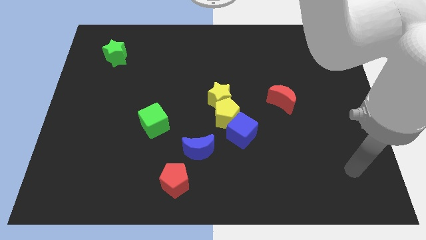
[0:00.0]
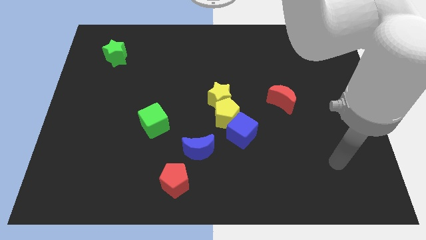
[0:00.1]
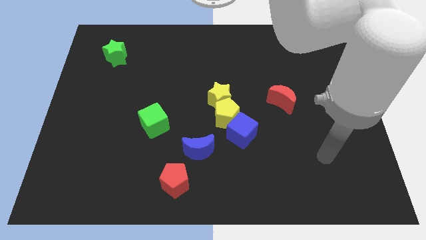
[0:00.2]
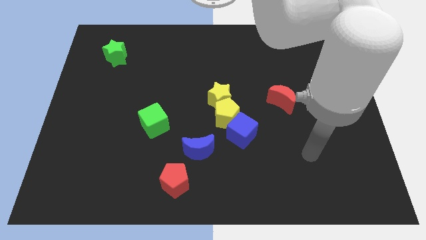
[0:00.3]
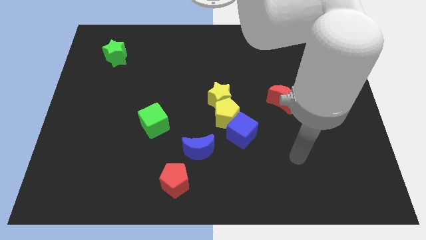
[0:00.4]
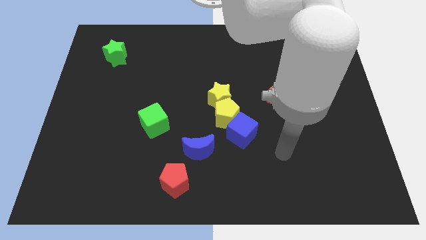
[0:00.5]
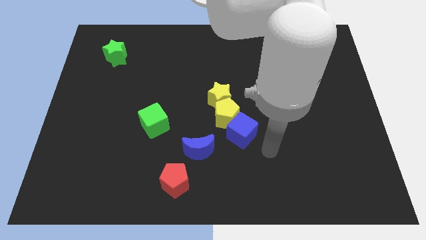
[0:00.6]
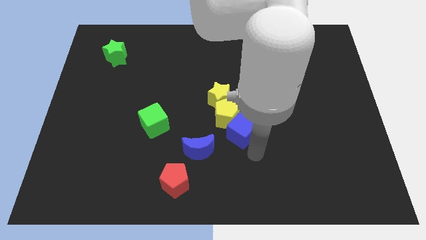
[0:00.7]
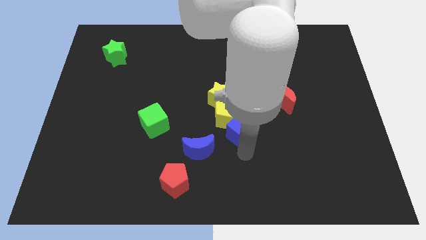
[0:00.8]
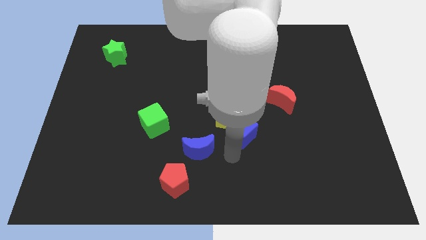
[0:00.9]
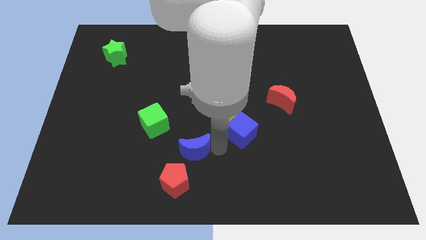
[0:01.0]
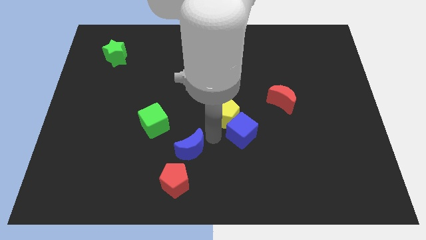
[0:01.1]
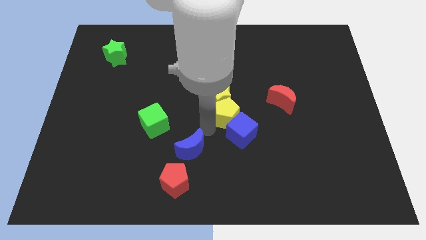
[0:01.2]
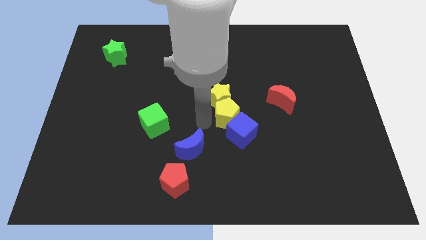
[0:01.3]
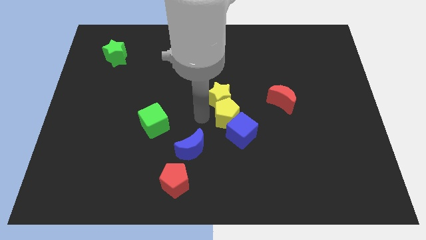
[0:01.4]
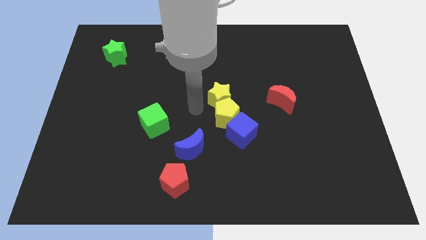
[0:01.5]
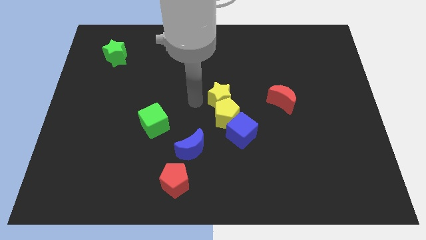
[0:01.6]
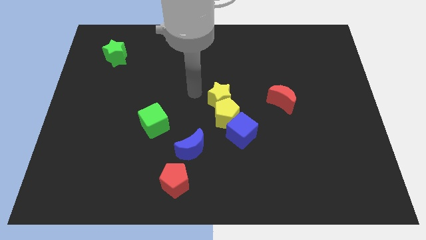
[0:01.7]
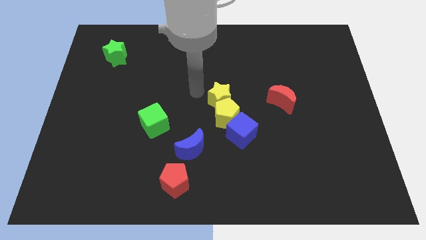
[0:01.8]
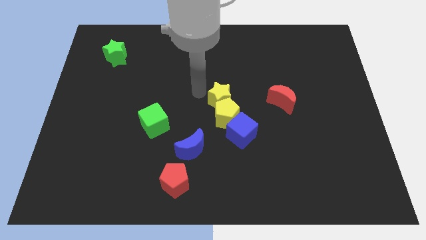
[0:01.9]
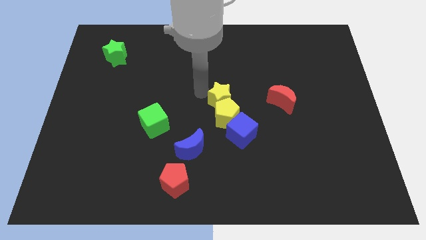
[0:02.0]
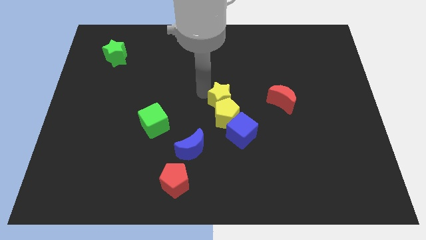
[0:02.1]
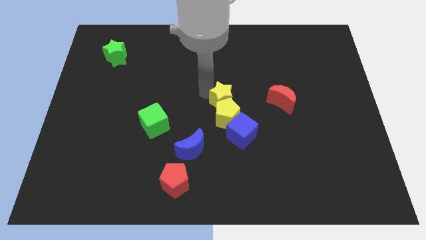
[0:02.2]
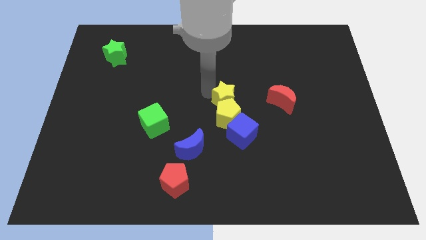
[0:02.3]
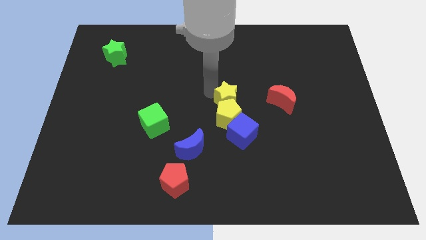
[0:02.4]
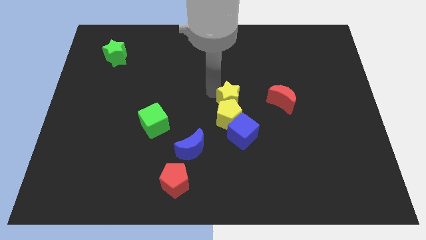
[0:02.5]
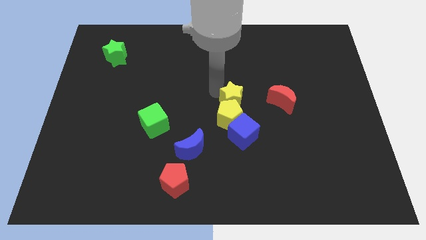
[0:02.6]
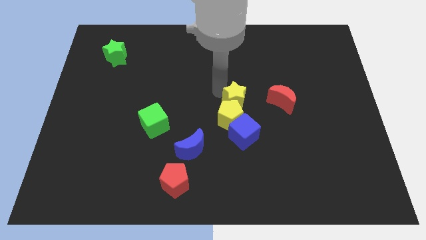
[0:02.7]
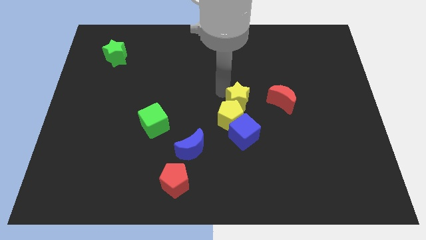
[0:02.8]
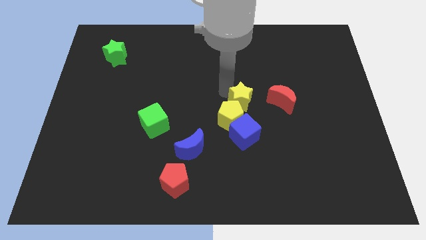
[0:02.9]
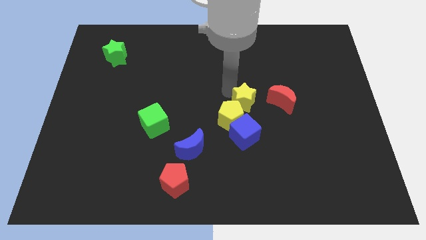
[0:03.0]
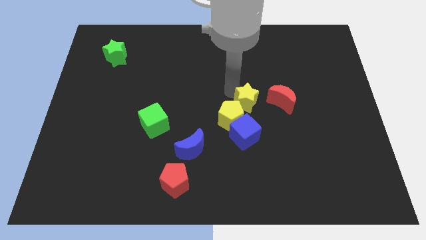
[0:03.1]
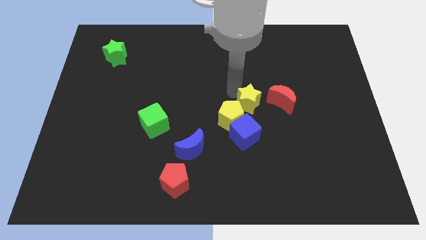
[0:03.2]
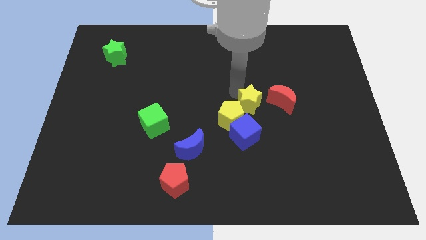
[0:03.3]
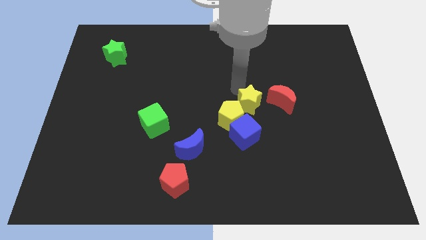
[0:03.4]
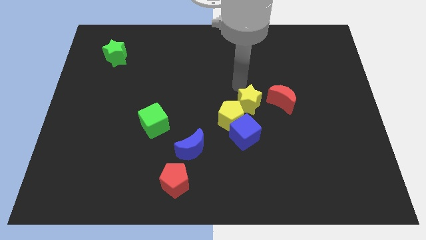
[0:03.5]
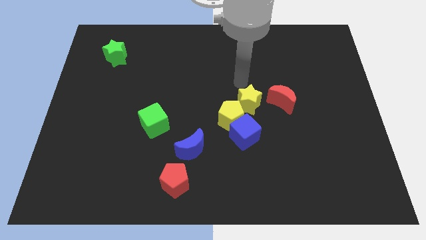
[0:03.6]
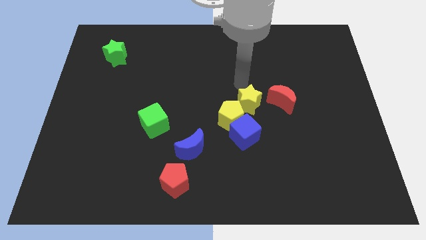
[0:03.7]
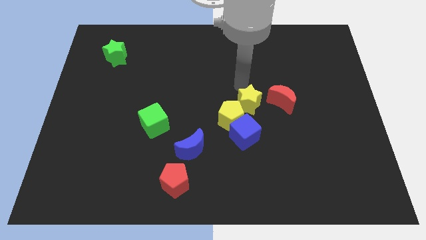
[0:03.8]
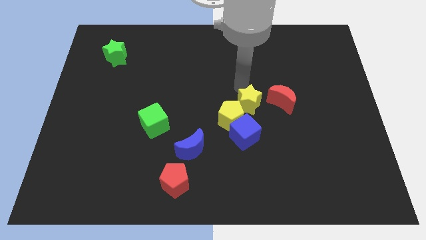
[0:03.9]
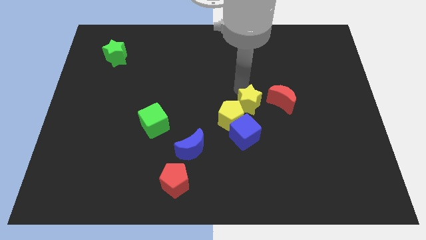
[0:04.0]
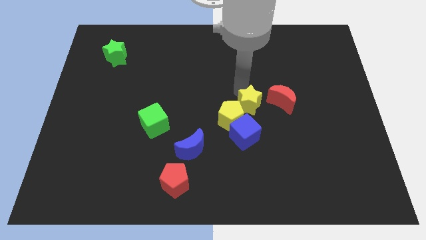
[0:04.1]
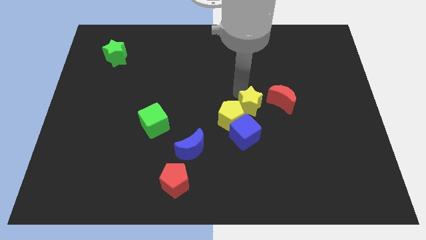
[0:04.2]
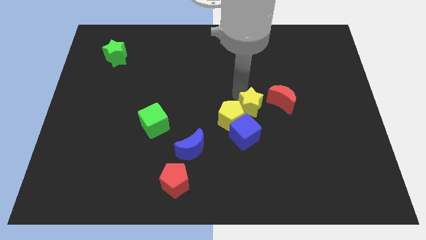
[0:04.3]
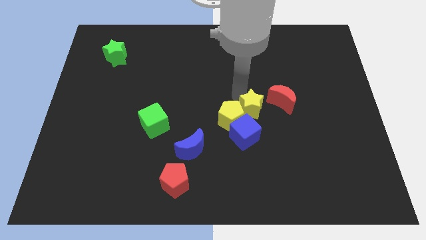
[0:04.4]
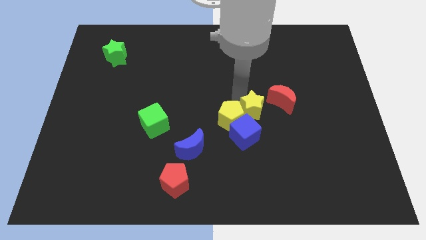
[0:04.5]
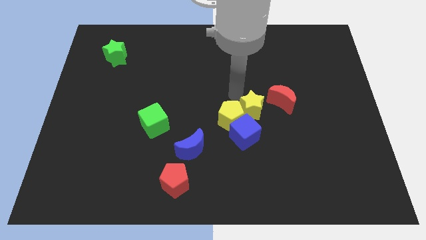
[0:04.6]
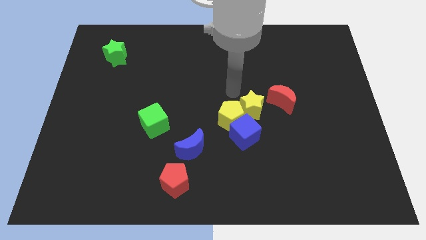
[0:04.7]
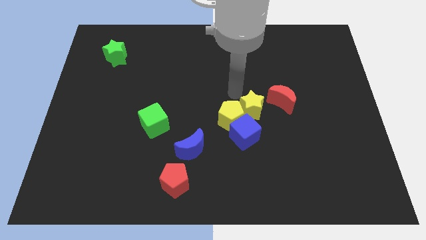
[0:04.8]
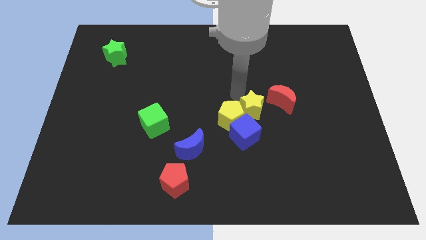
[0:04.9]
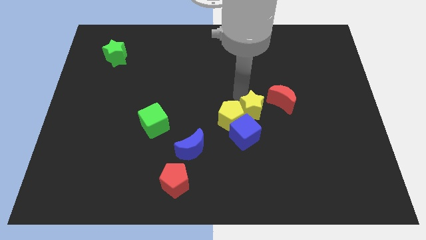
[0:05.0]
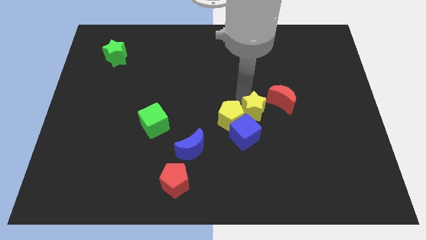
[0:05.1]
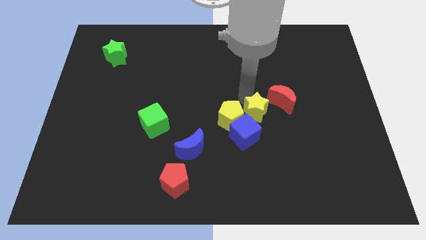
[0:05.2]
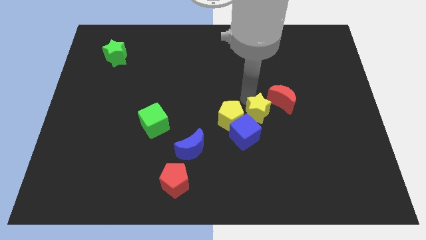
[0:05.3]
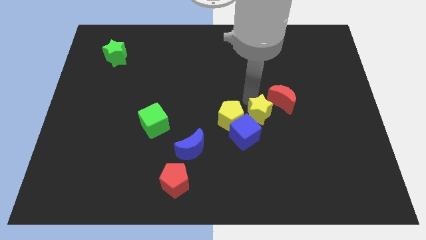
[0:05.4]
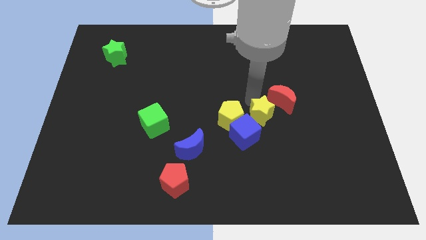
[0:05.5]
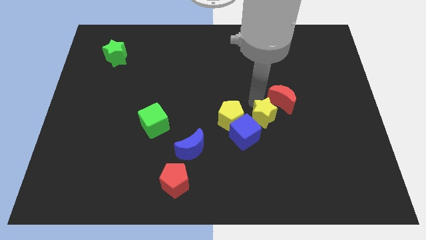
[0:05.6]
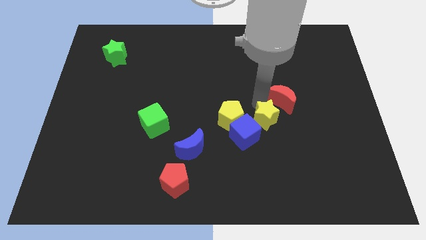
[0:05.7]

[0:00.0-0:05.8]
move the yellow star to the bottom of the red moon

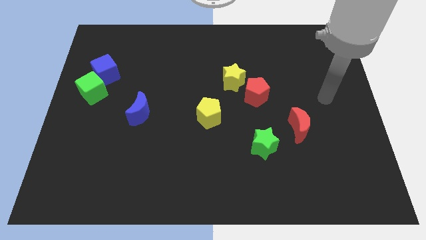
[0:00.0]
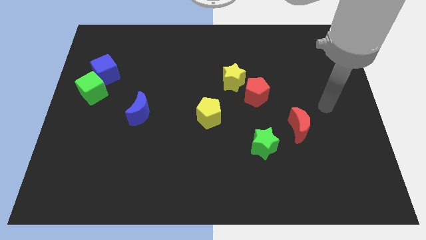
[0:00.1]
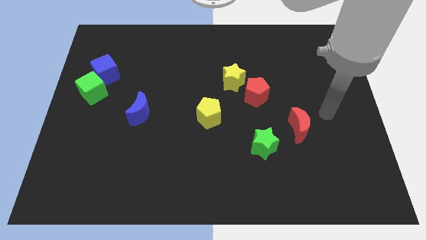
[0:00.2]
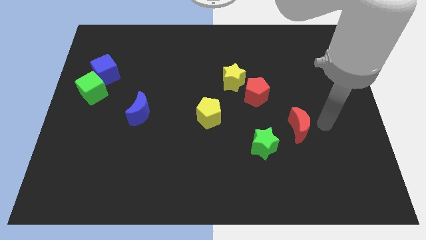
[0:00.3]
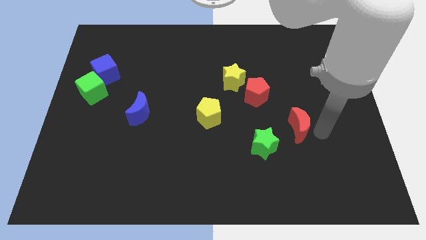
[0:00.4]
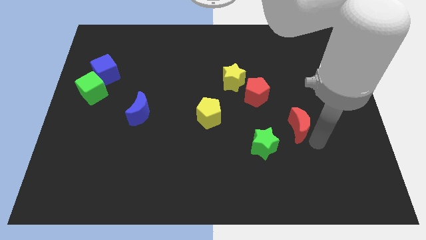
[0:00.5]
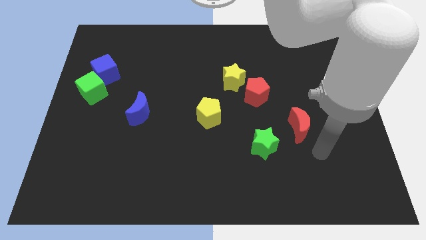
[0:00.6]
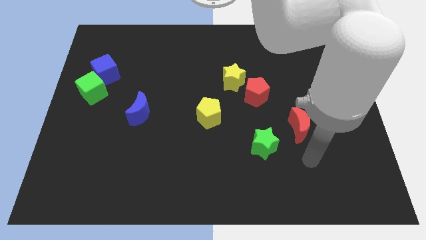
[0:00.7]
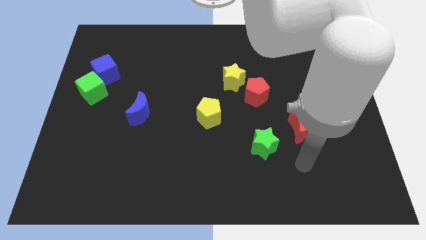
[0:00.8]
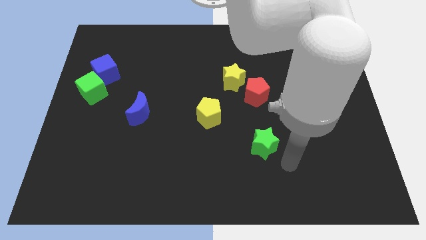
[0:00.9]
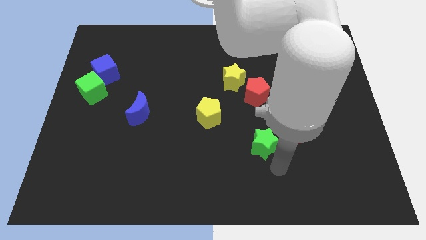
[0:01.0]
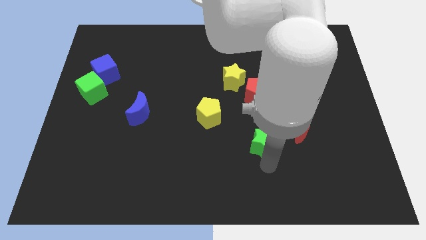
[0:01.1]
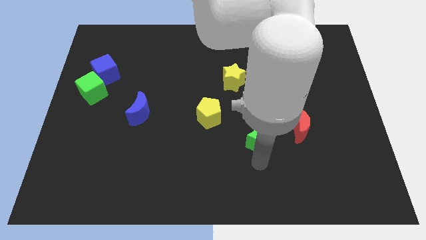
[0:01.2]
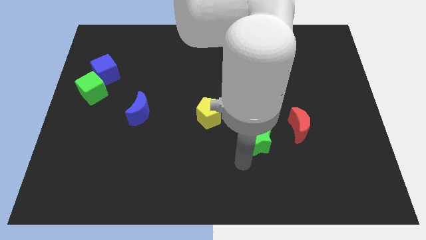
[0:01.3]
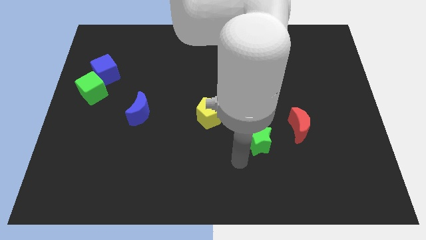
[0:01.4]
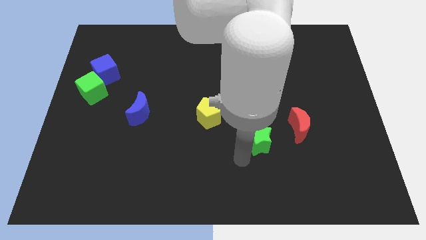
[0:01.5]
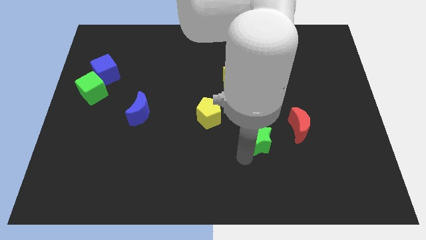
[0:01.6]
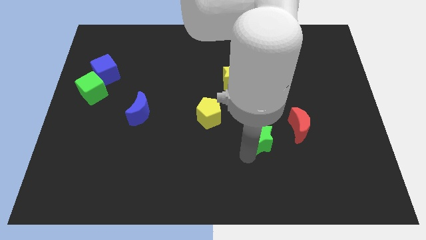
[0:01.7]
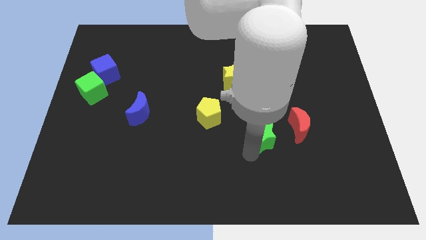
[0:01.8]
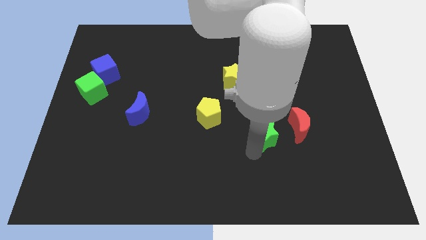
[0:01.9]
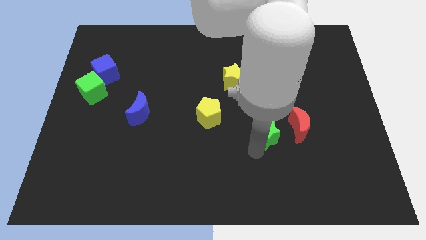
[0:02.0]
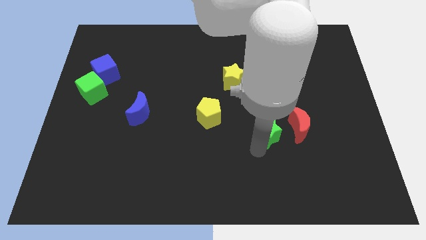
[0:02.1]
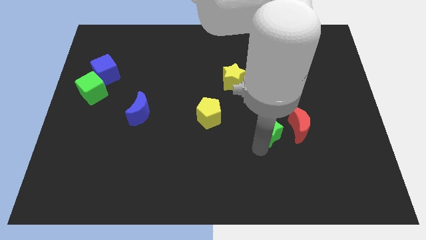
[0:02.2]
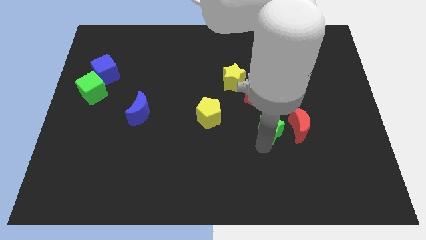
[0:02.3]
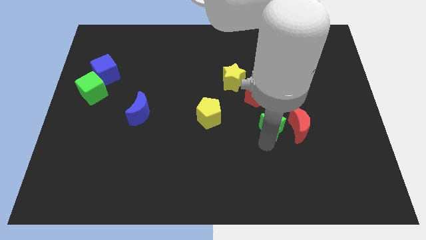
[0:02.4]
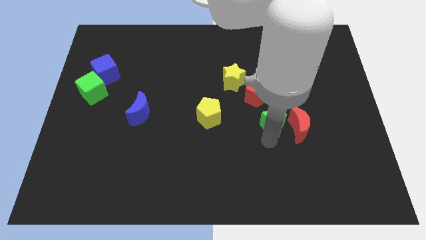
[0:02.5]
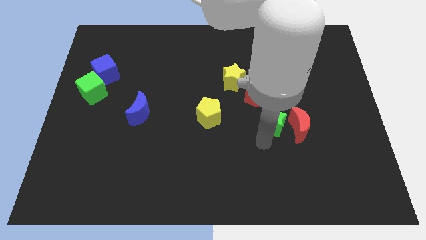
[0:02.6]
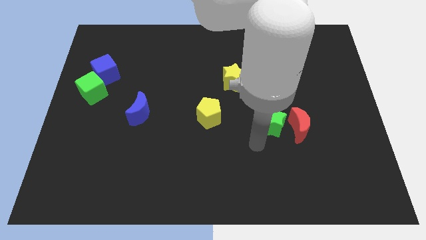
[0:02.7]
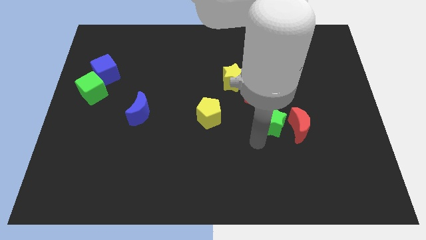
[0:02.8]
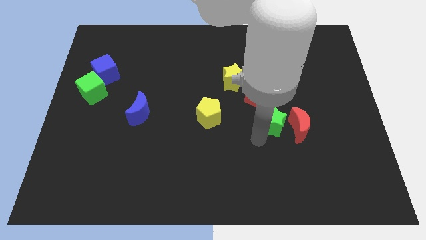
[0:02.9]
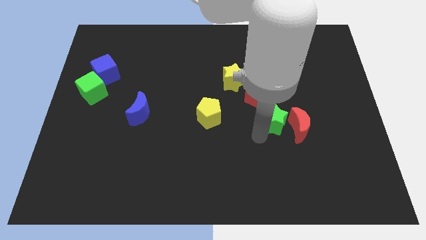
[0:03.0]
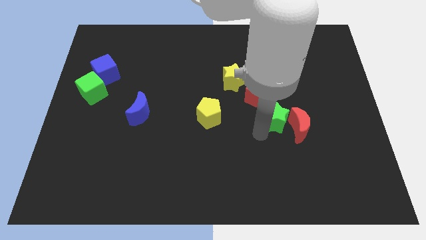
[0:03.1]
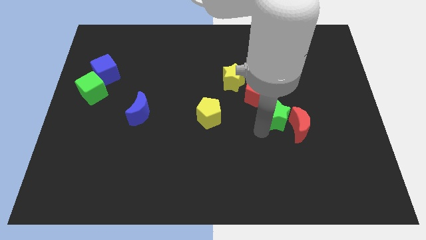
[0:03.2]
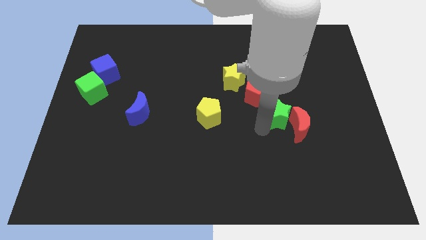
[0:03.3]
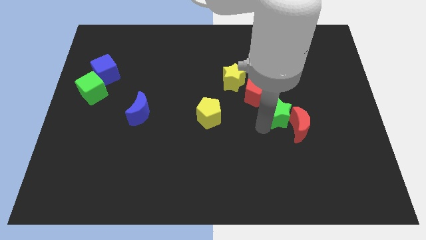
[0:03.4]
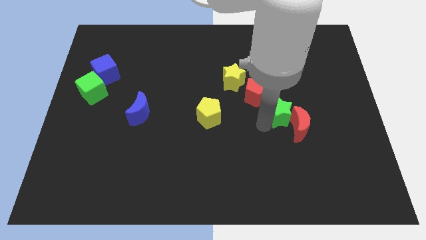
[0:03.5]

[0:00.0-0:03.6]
slide the green star to the top side of the red moon
